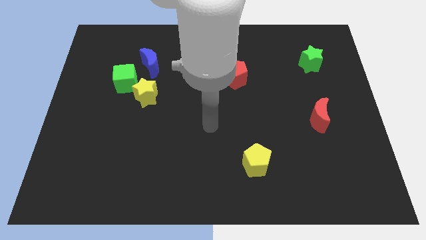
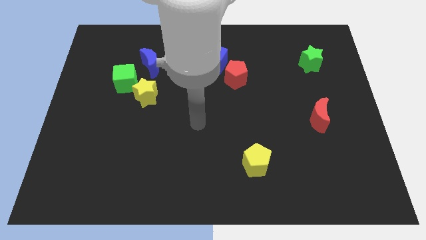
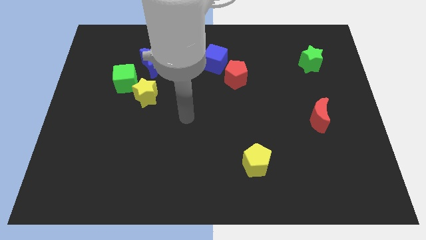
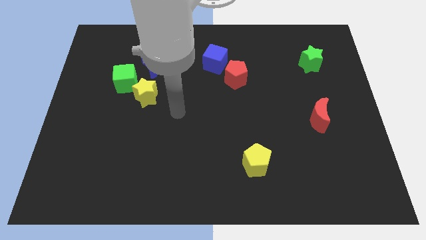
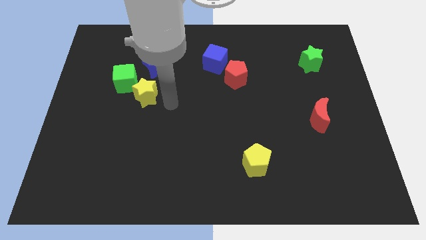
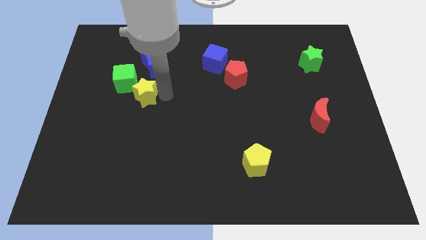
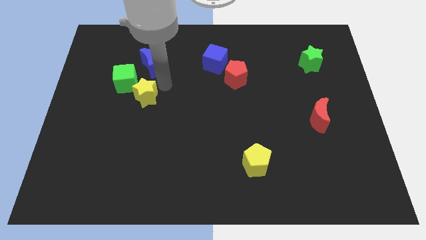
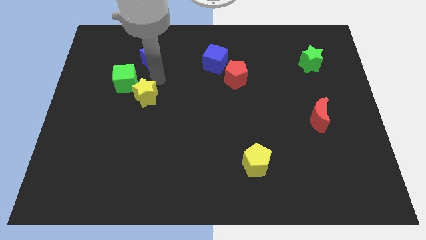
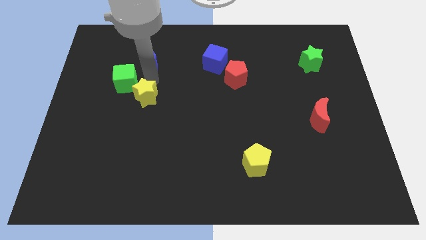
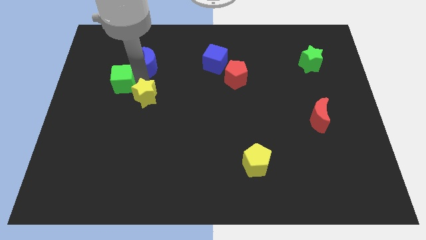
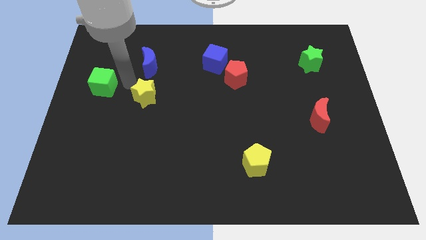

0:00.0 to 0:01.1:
move the yellow star away from the green cube

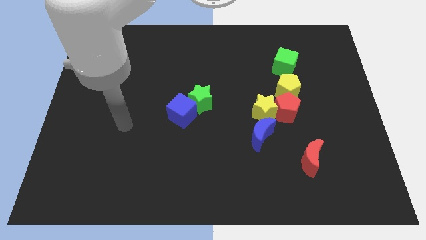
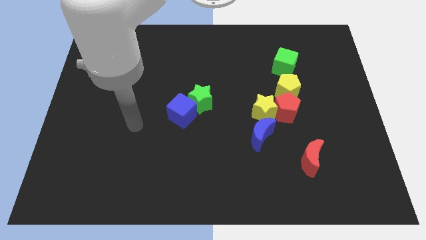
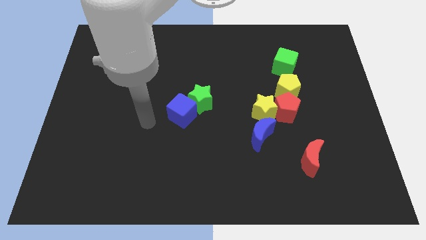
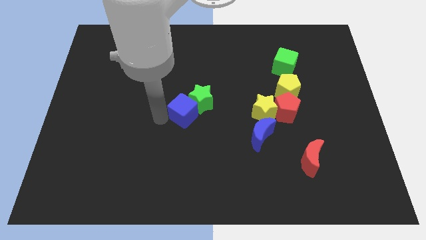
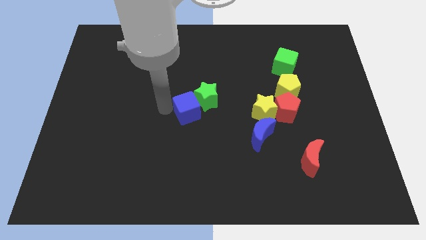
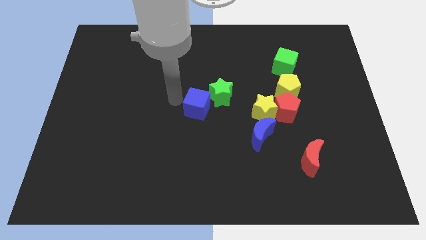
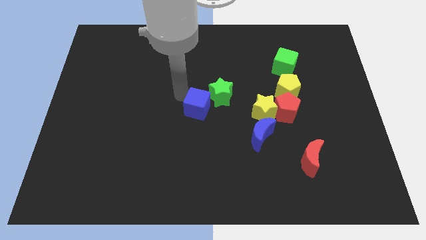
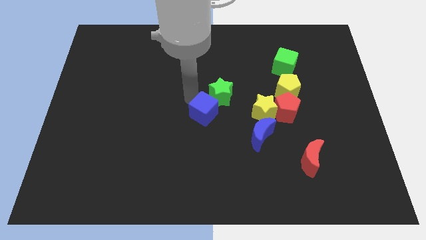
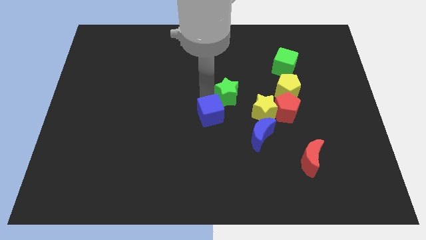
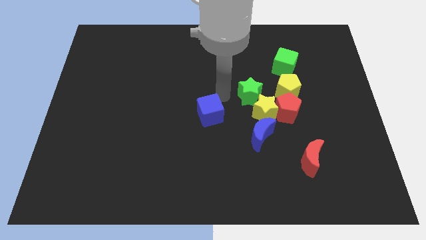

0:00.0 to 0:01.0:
pull the blue cube apart from the green star

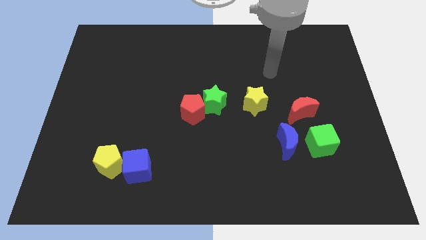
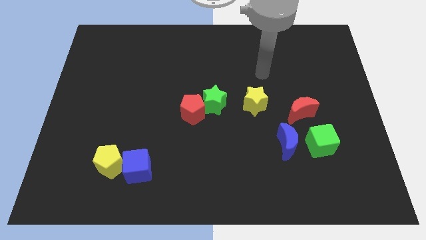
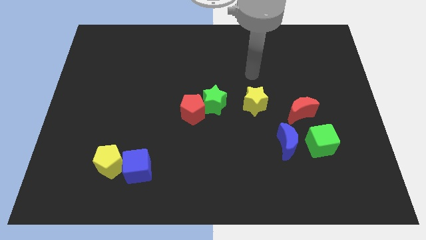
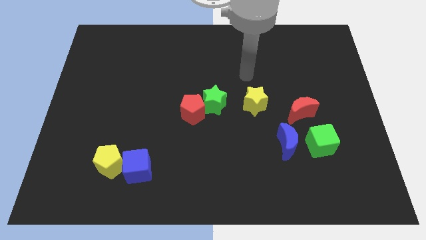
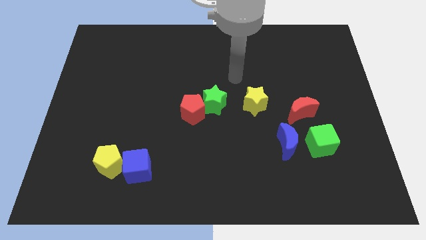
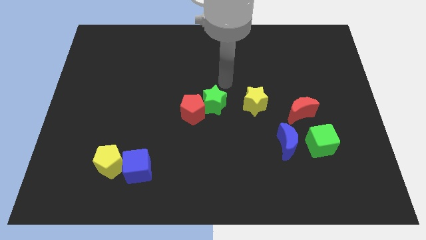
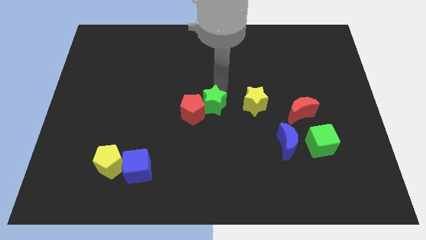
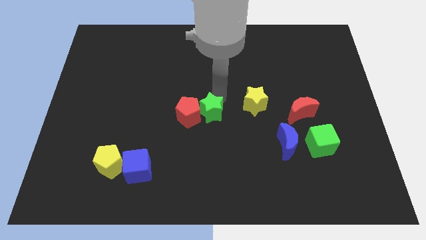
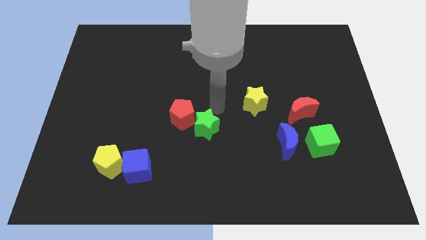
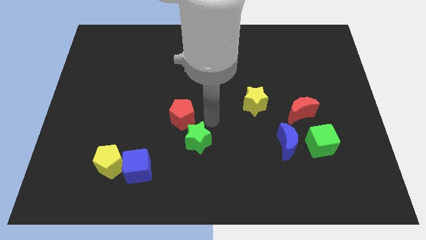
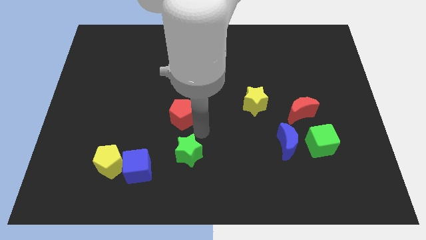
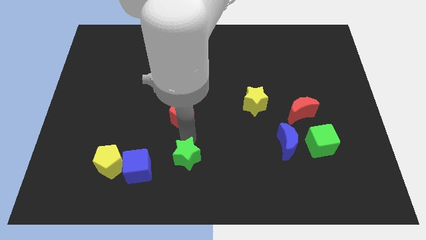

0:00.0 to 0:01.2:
move the red pentagon away from the green star

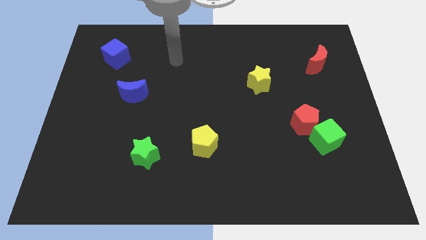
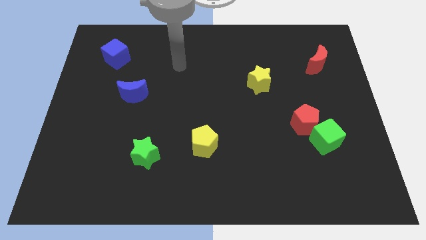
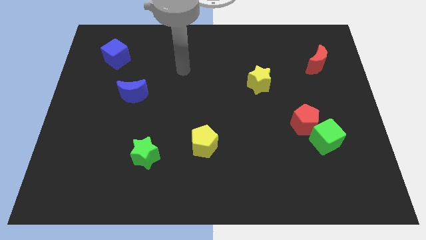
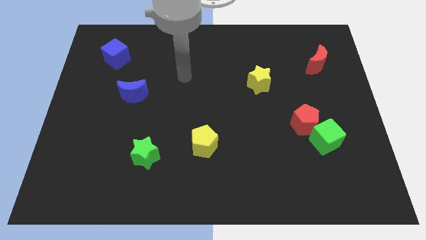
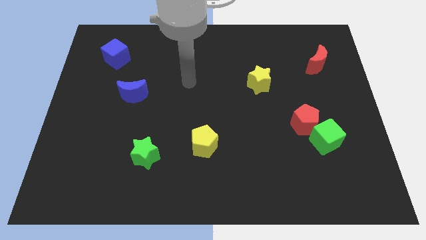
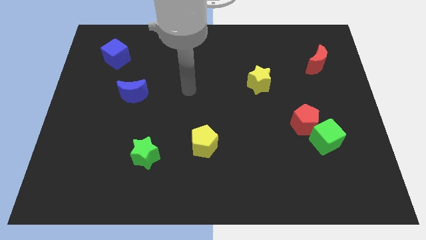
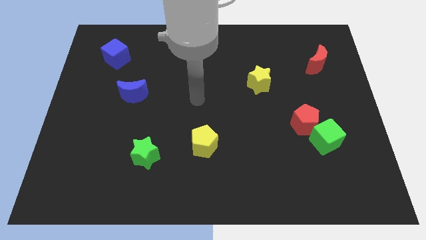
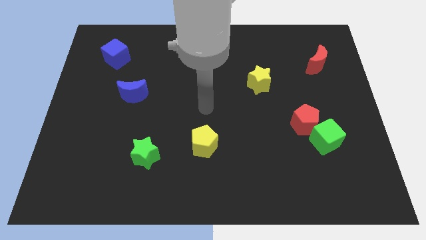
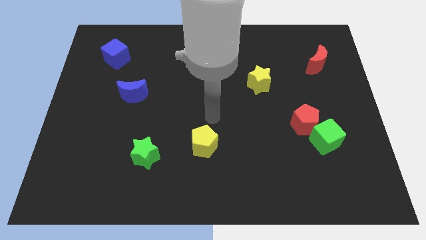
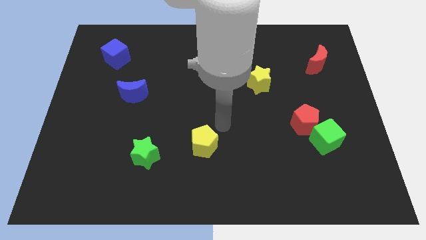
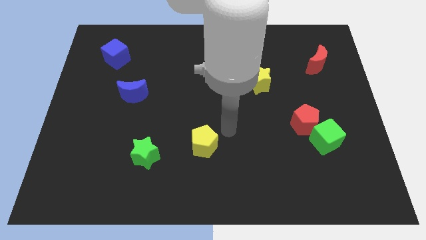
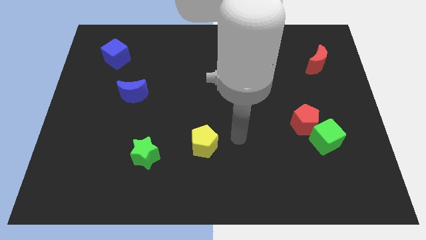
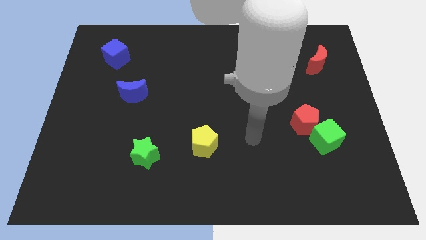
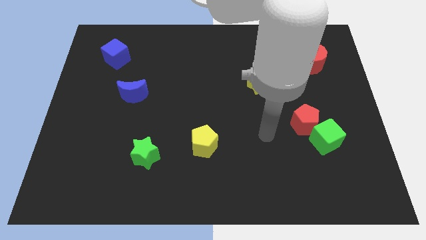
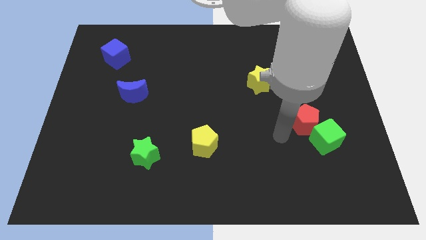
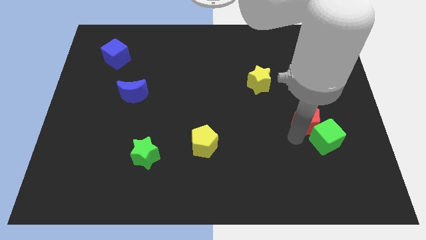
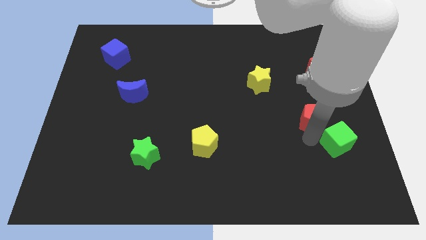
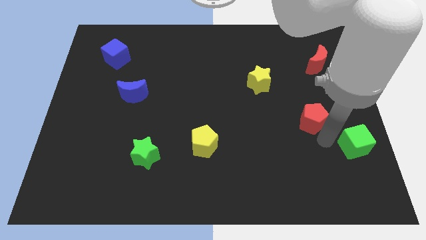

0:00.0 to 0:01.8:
move the red pentagon away from the green cube

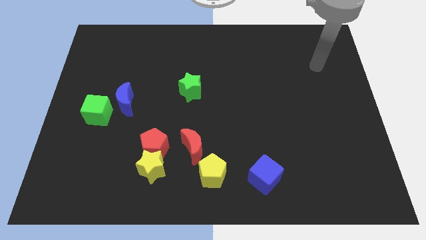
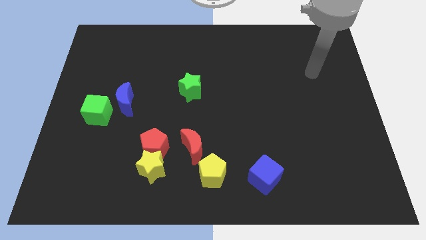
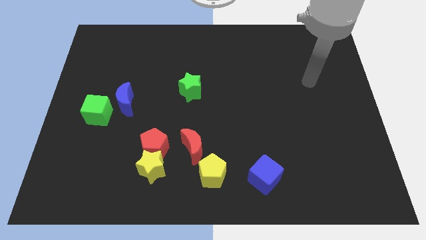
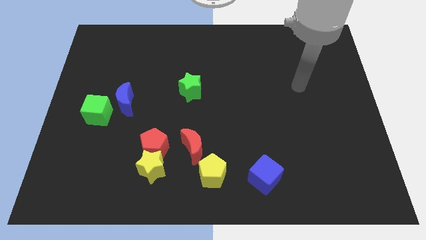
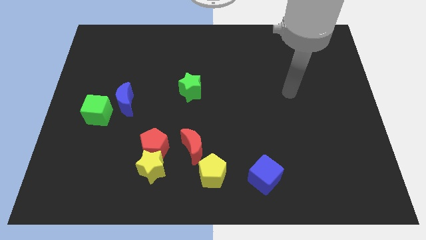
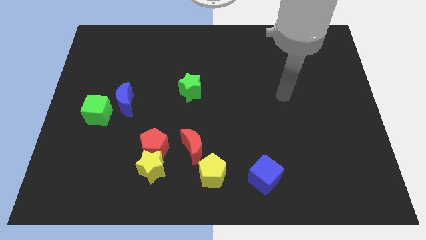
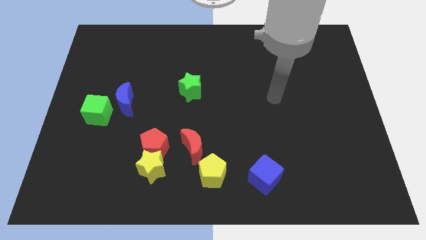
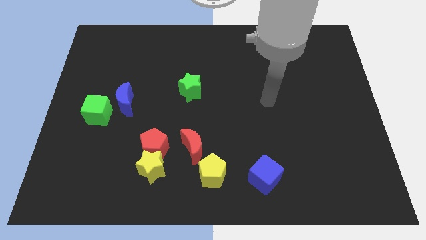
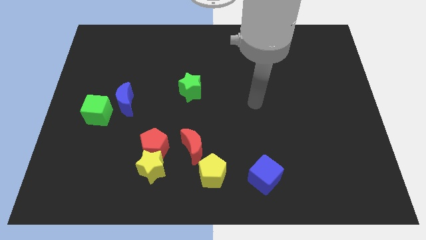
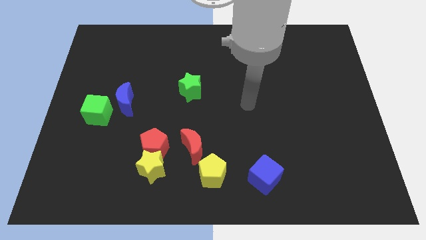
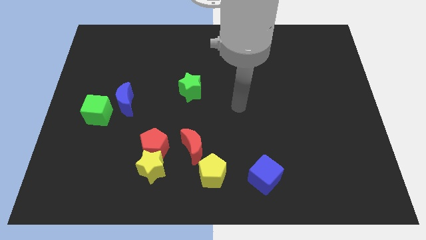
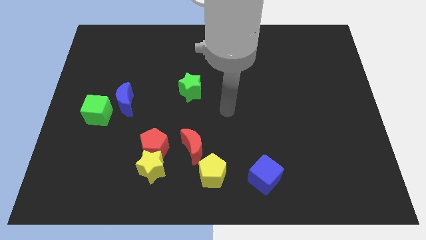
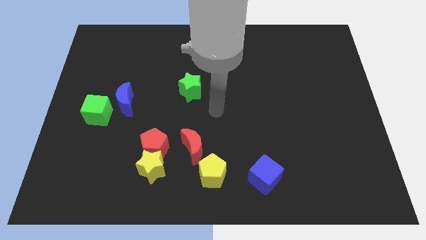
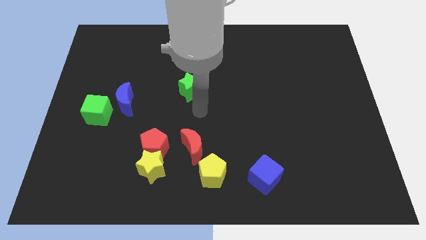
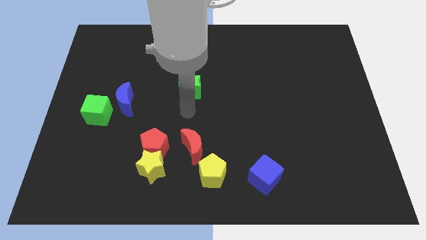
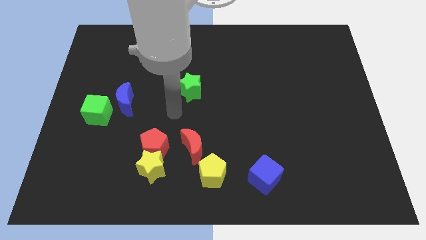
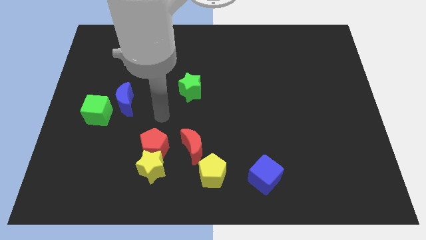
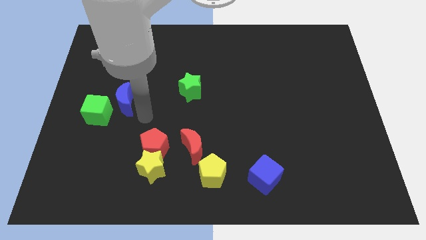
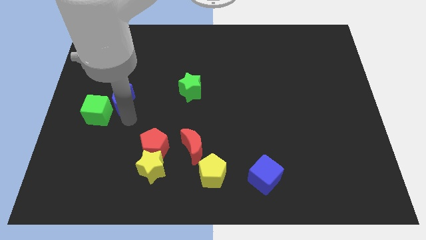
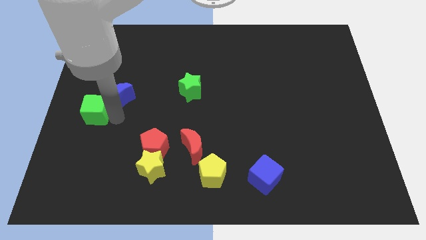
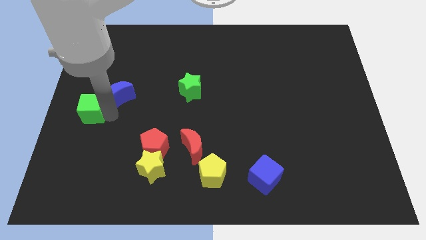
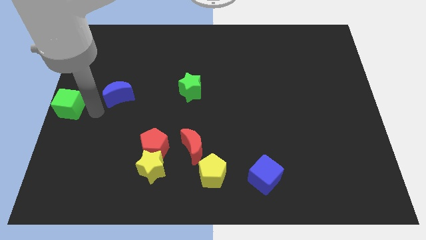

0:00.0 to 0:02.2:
move the blue moon away from the green cube

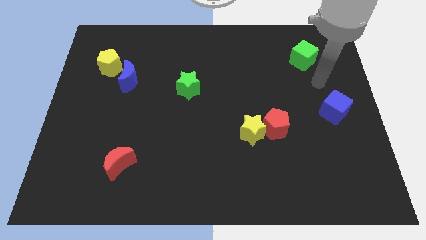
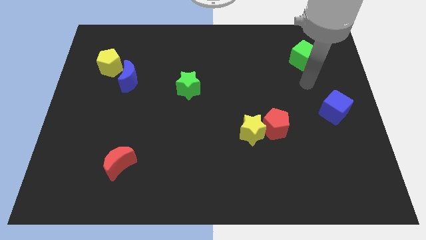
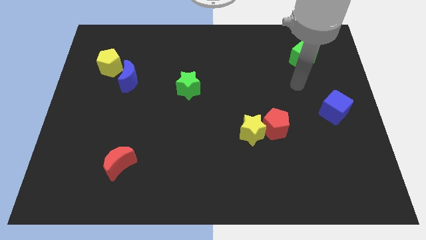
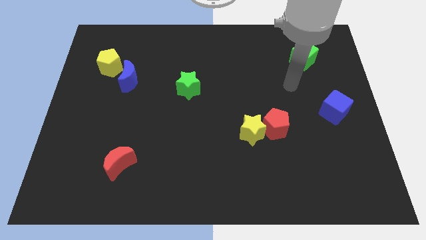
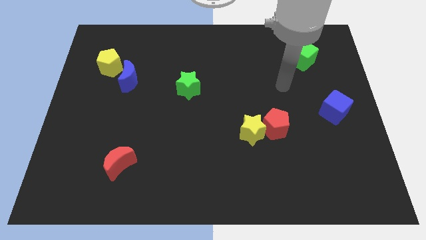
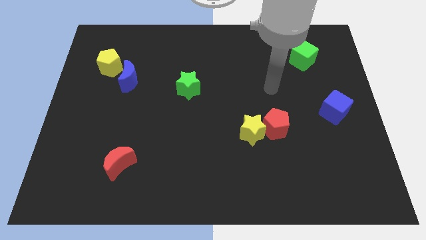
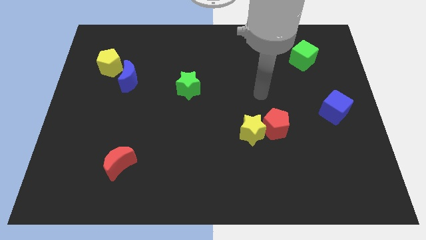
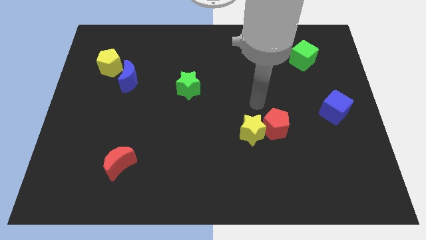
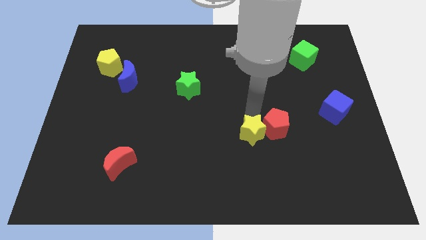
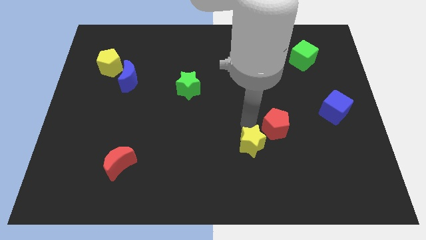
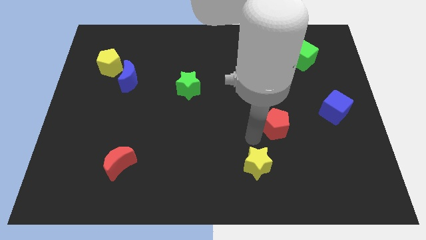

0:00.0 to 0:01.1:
pull the red pentagon apart from the yellow star

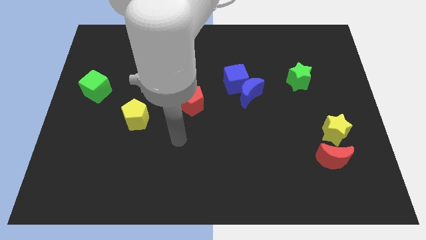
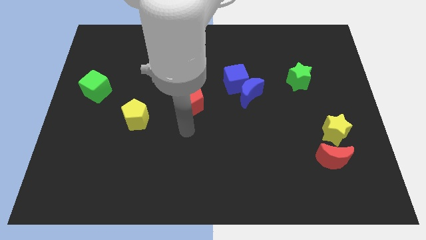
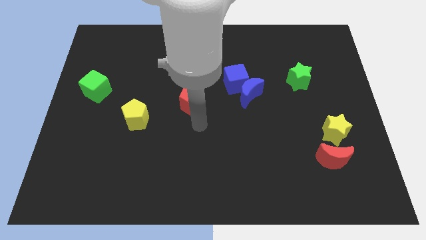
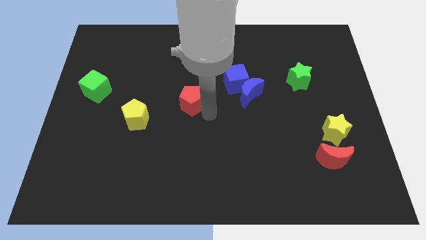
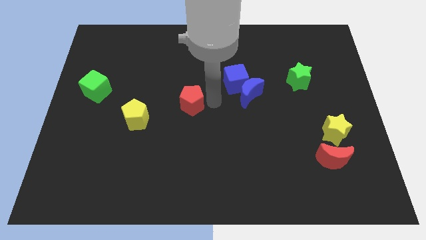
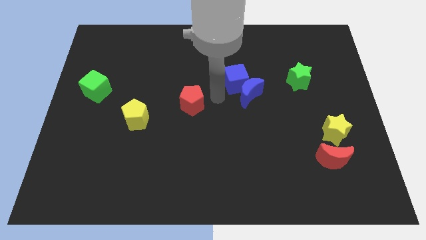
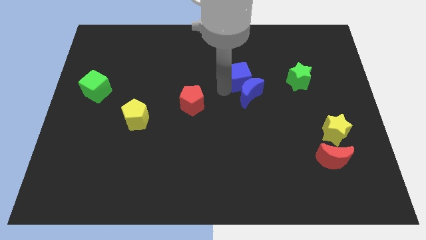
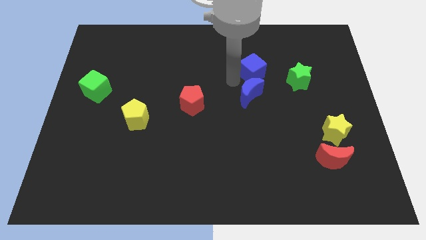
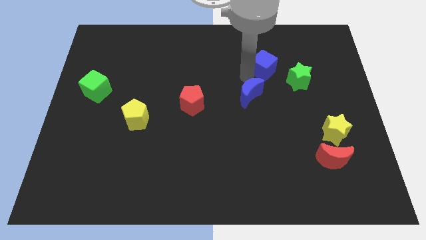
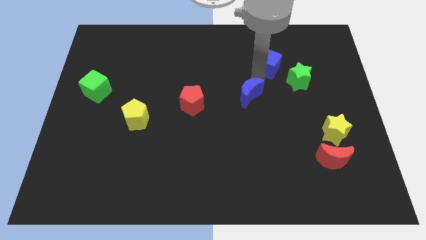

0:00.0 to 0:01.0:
move the blue moon away from the blue cube
